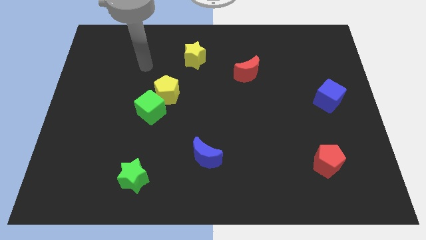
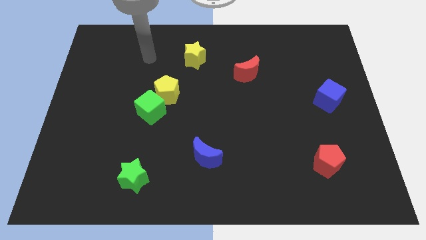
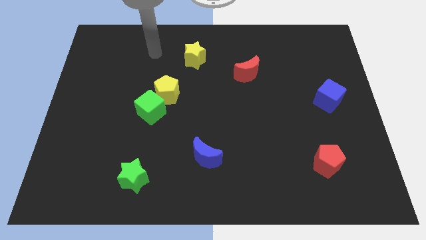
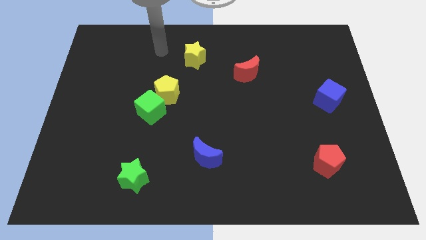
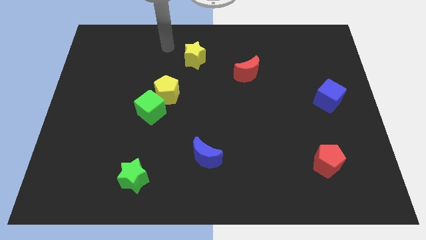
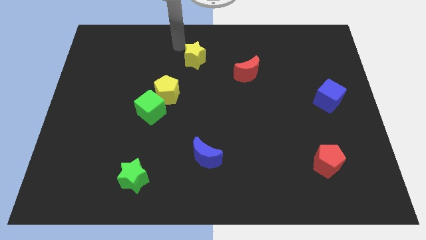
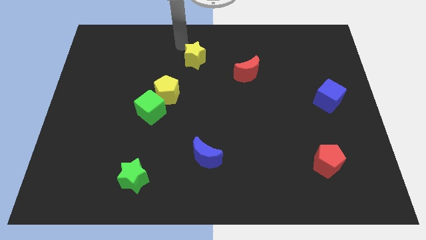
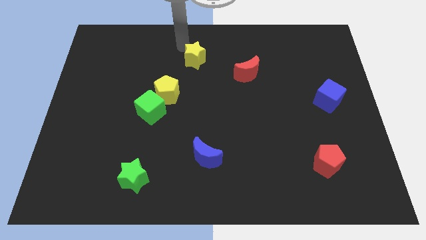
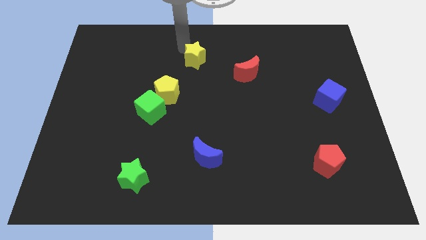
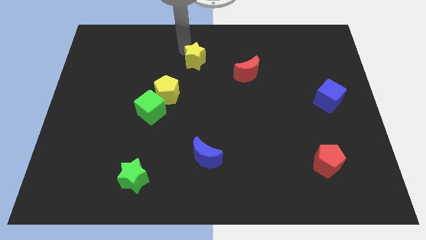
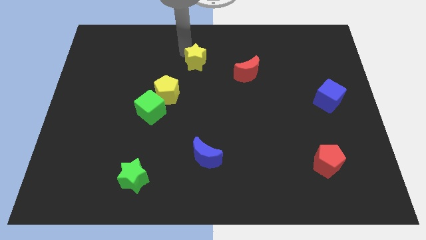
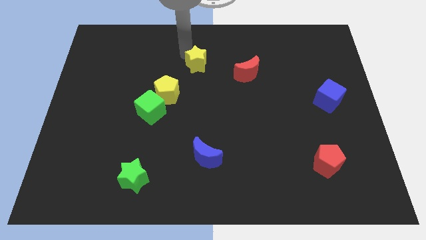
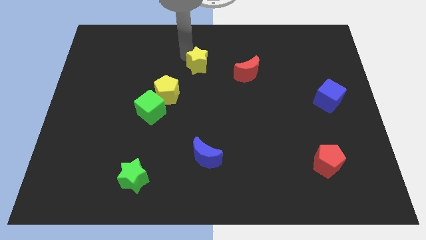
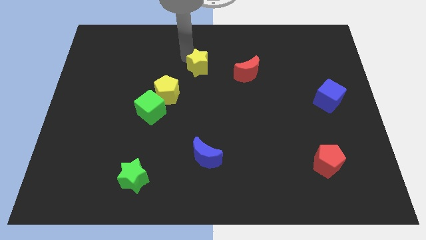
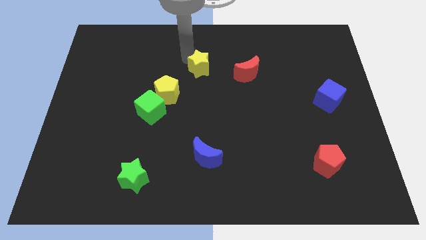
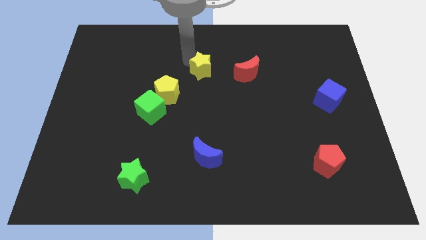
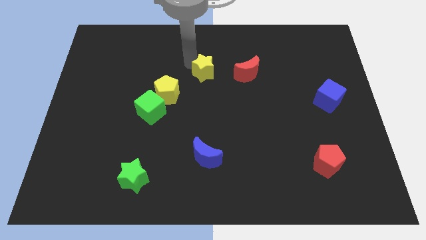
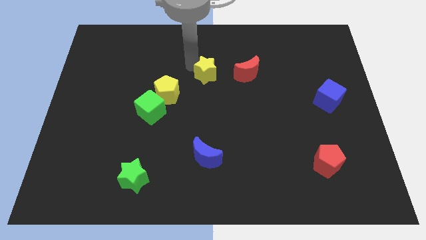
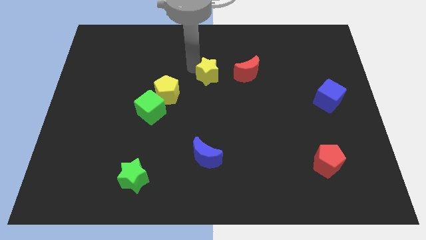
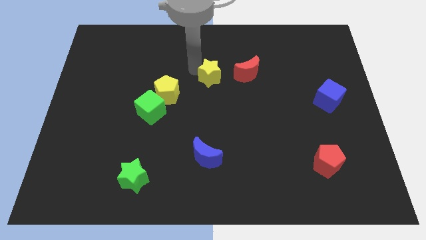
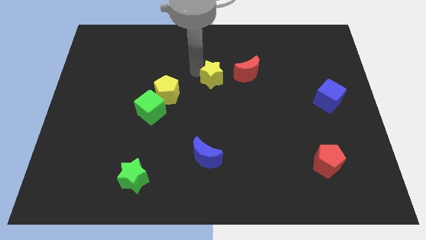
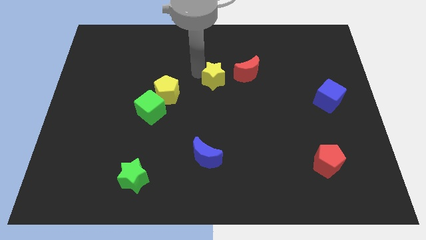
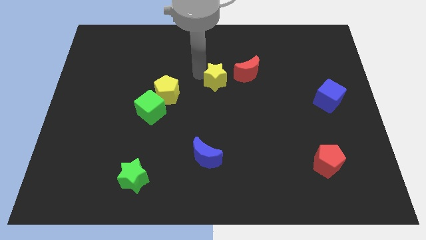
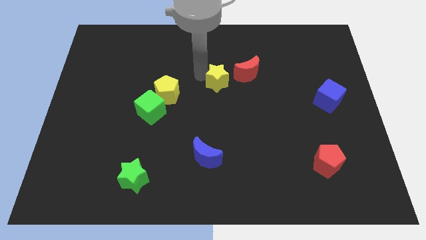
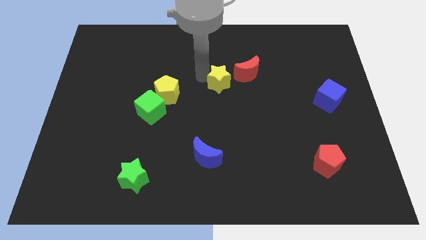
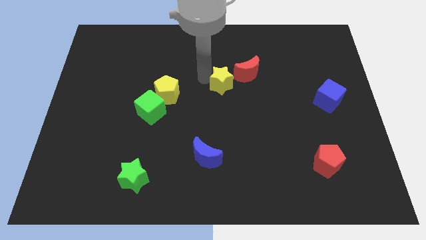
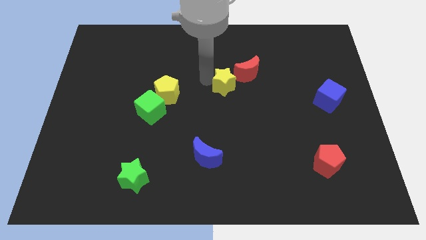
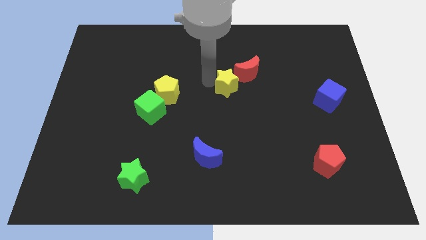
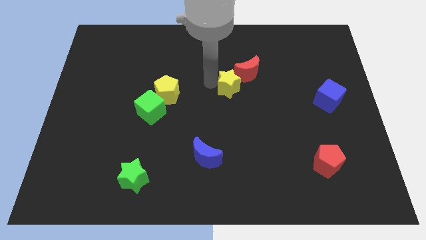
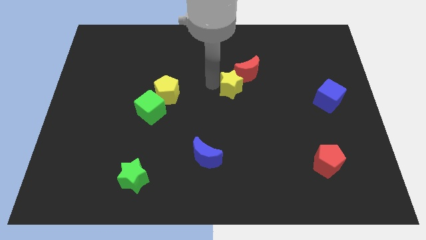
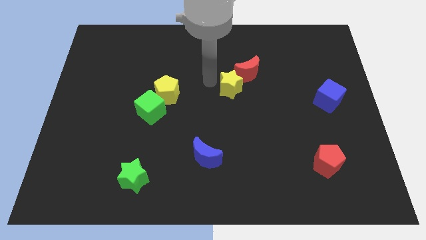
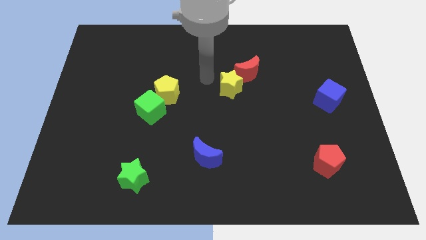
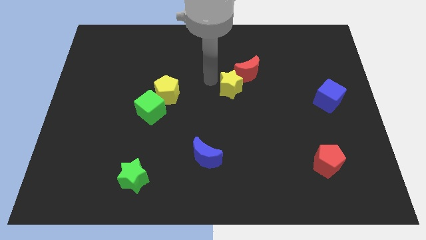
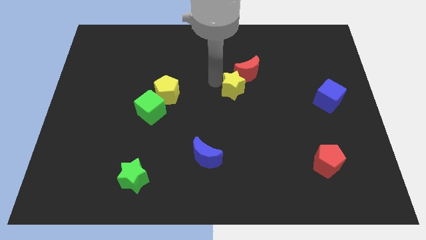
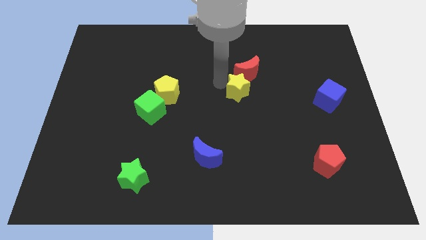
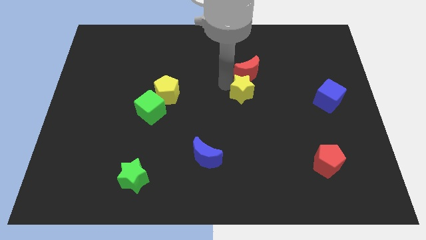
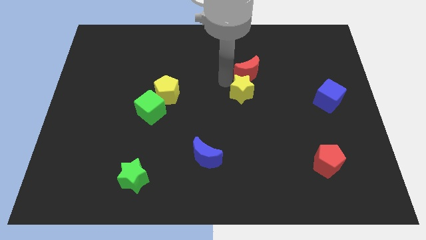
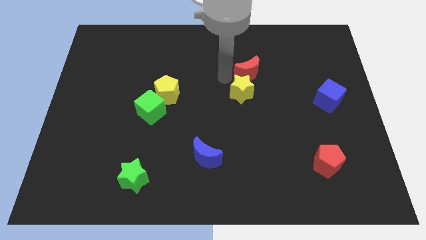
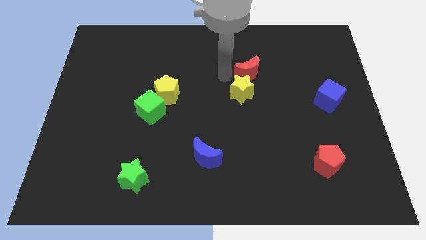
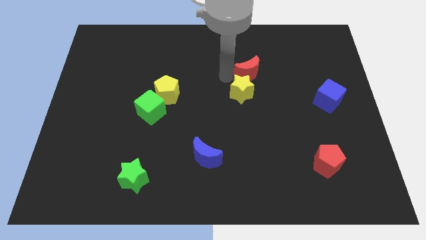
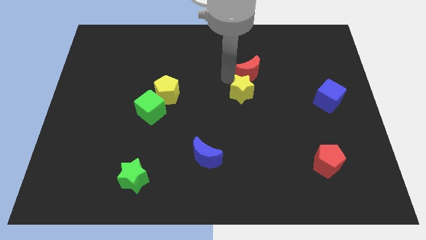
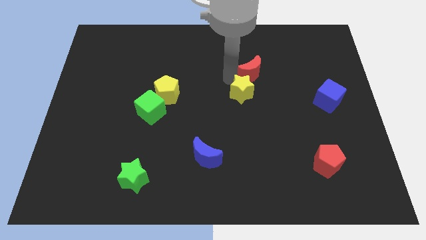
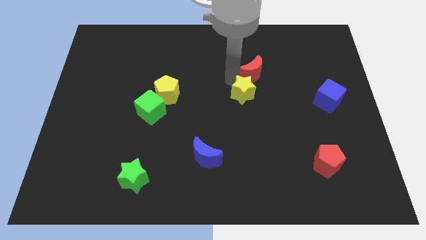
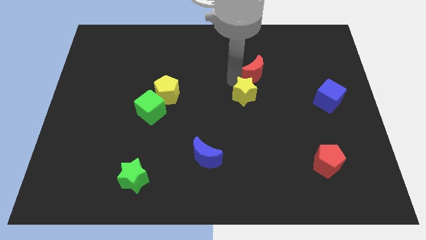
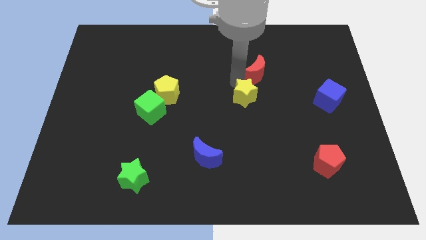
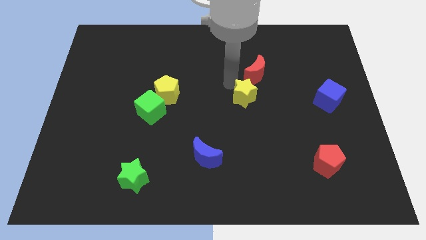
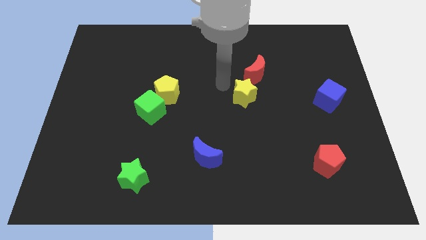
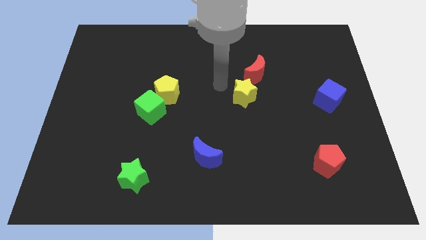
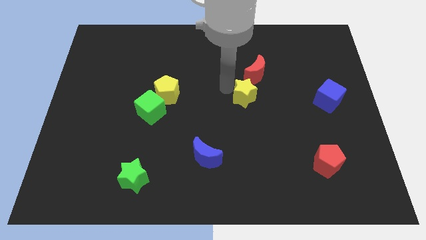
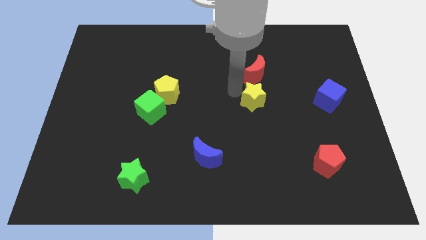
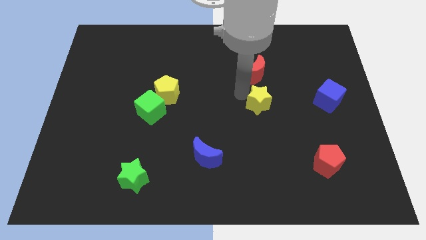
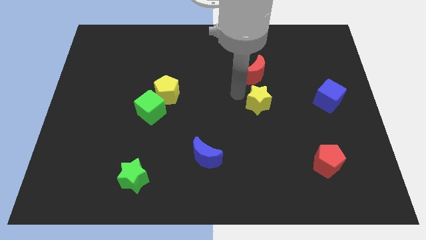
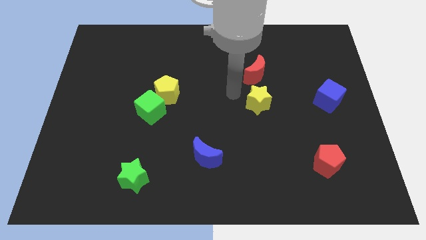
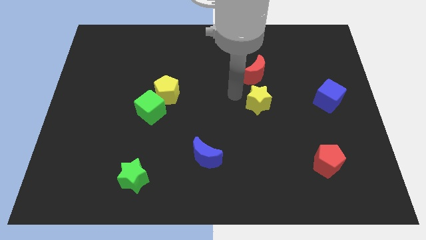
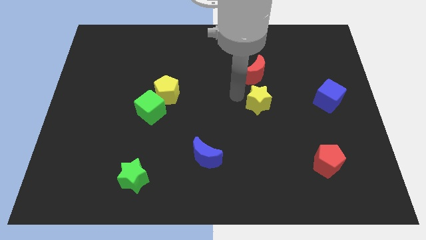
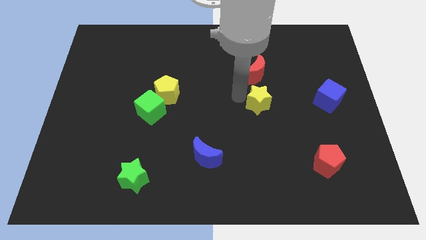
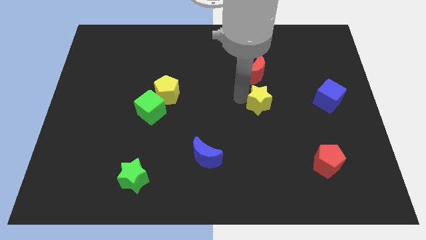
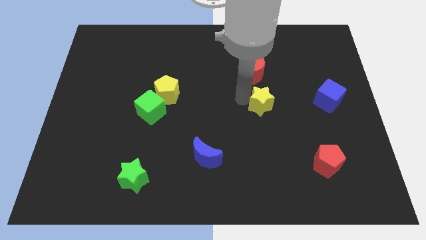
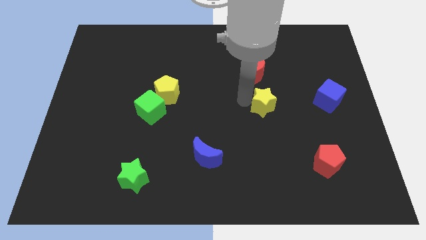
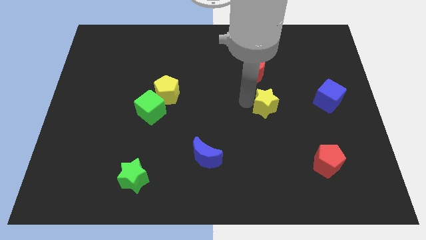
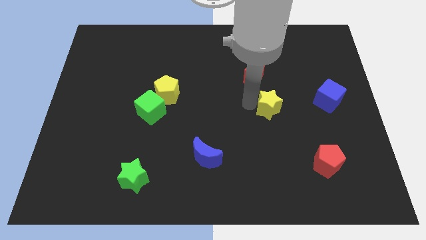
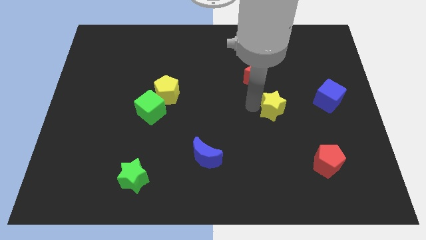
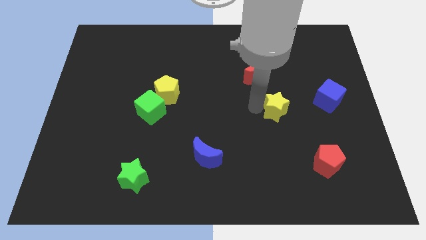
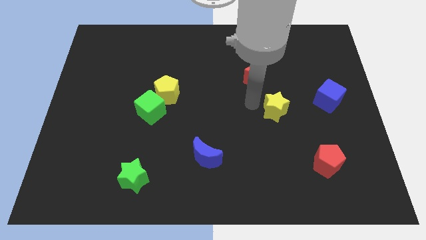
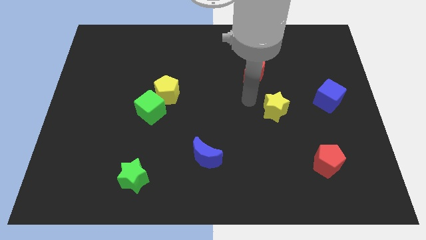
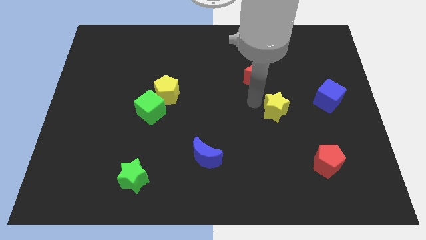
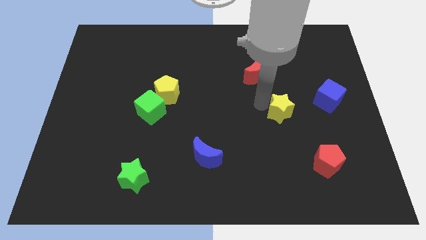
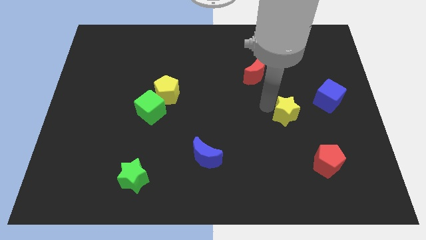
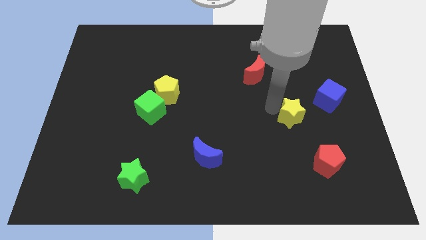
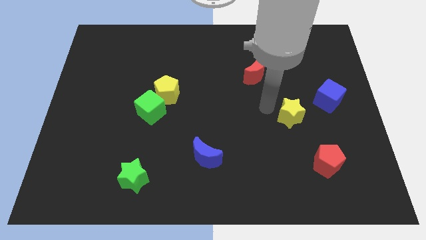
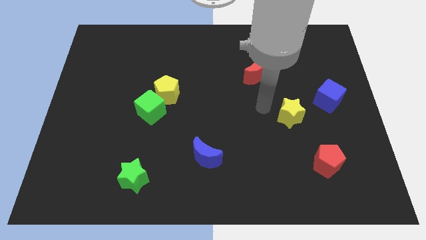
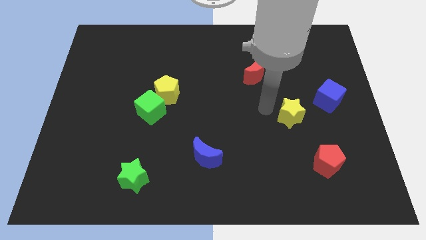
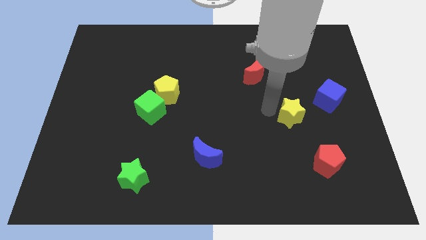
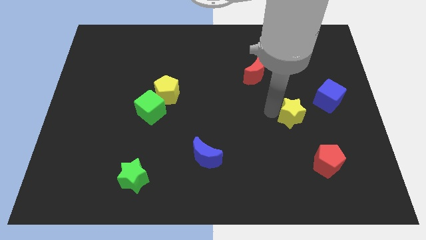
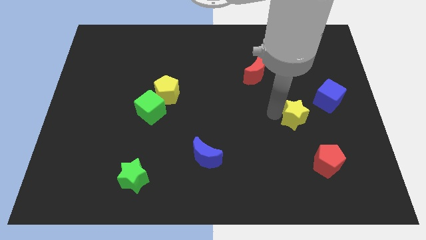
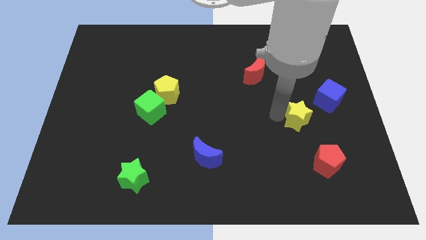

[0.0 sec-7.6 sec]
move the yellow star above the red pentagon

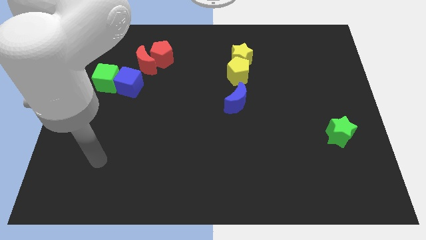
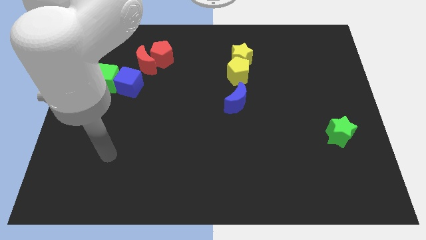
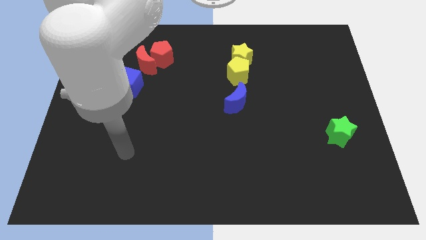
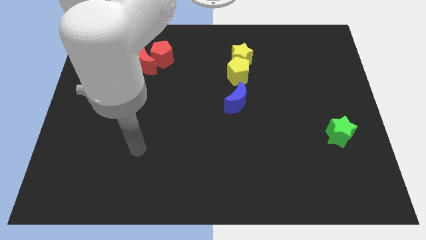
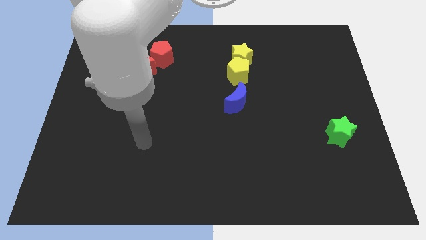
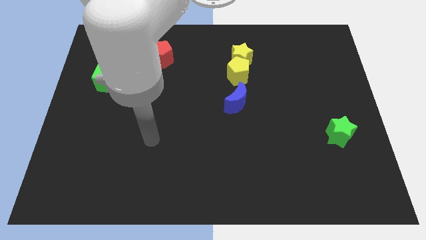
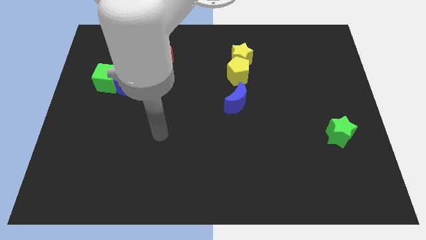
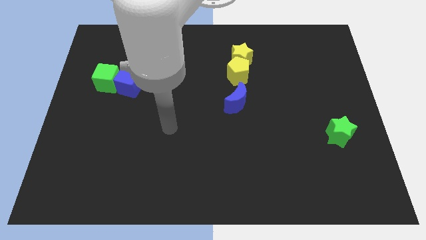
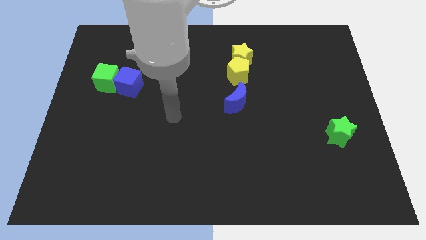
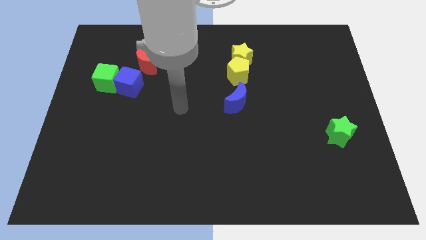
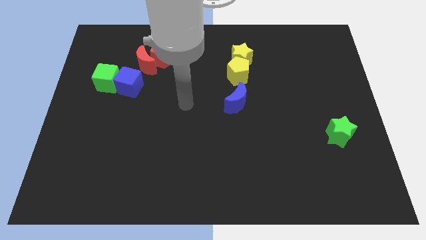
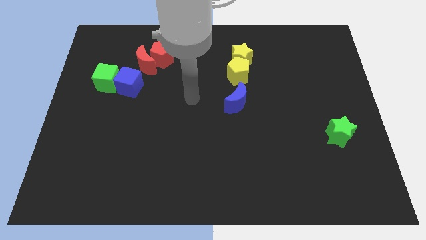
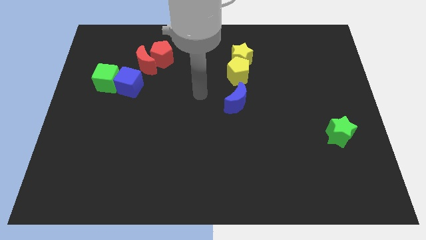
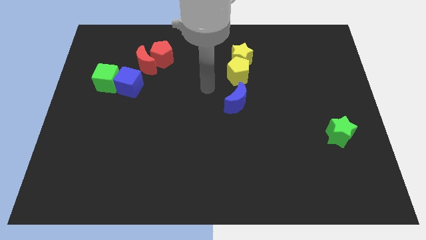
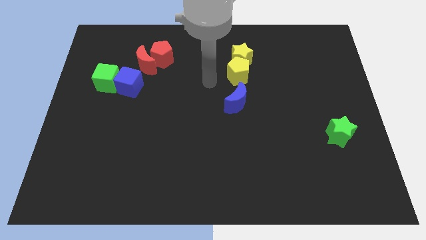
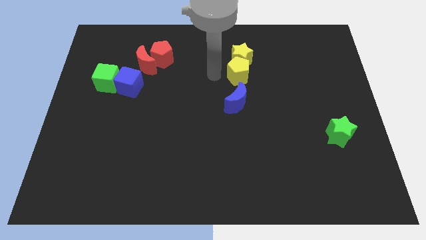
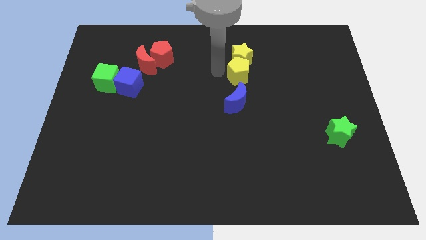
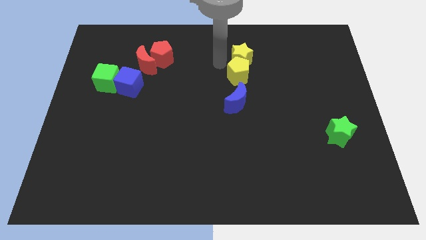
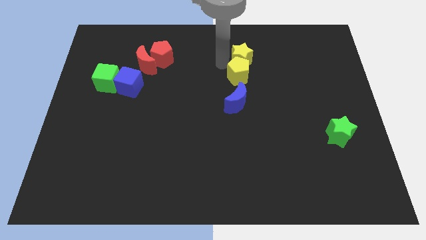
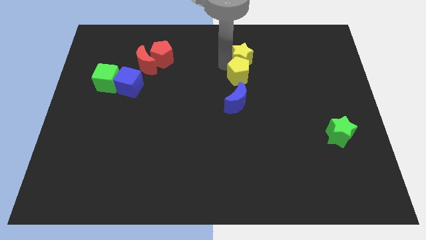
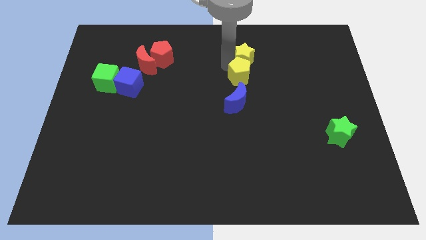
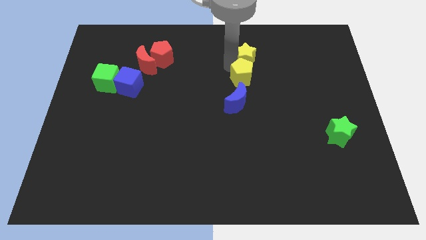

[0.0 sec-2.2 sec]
move the yellow pentagon to the top right of the blue moon
